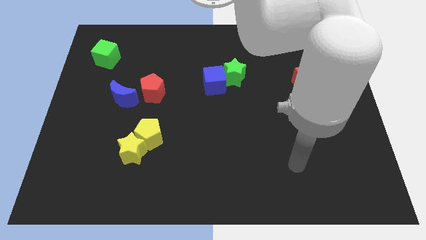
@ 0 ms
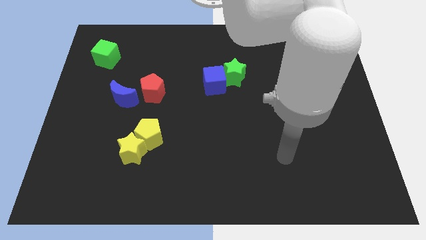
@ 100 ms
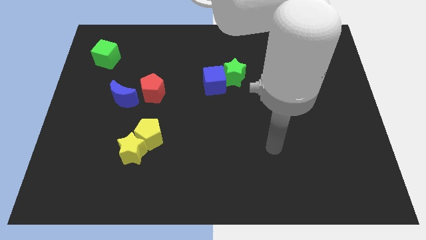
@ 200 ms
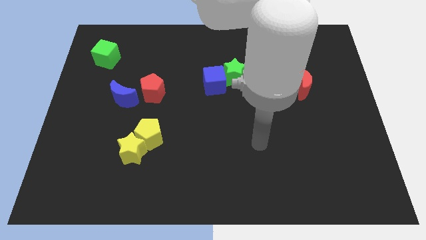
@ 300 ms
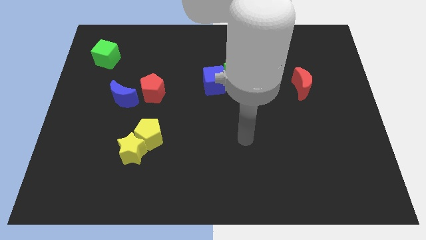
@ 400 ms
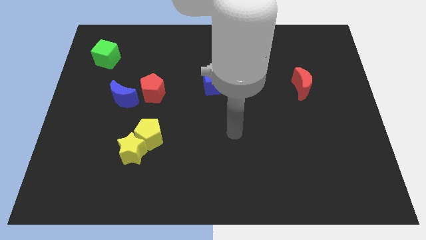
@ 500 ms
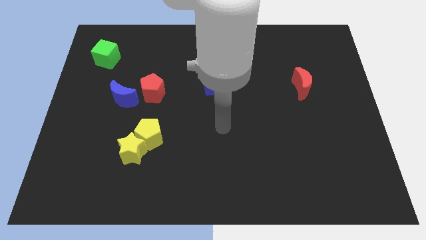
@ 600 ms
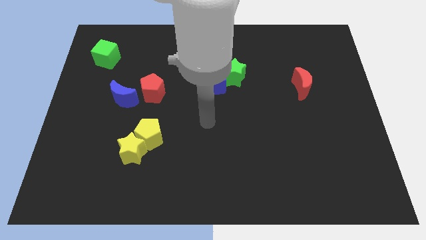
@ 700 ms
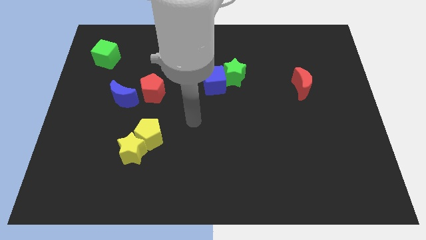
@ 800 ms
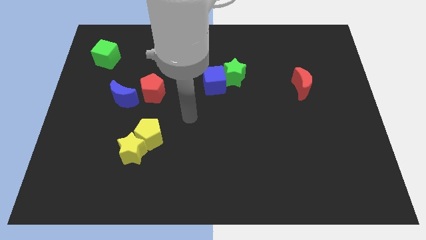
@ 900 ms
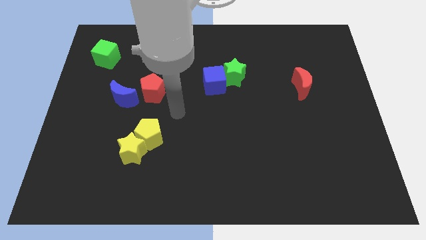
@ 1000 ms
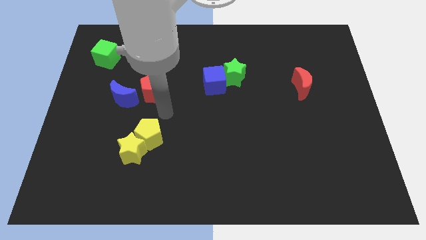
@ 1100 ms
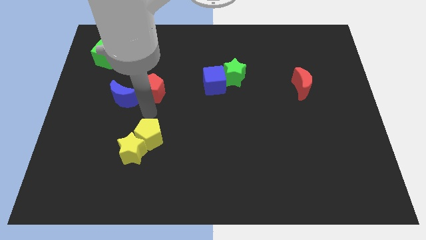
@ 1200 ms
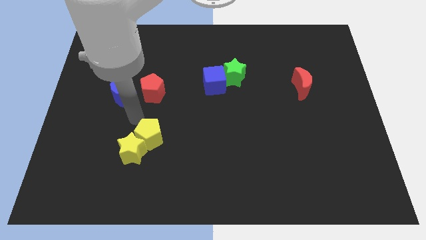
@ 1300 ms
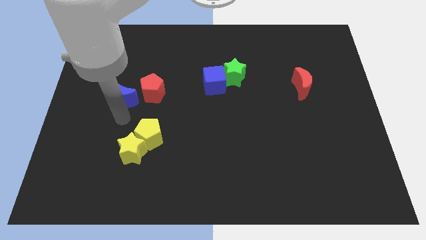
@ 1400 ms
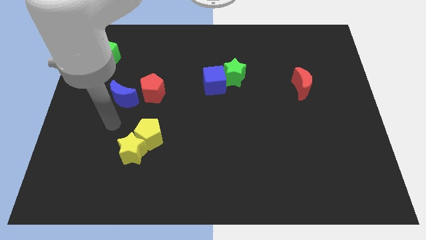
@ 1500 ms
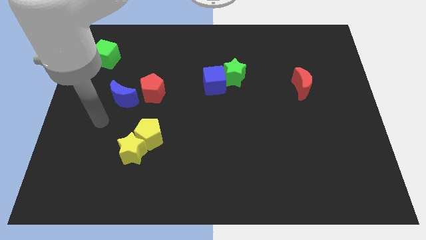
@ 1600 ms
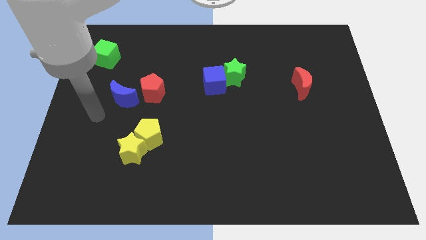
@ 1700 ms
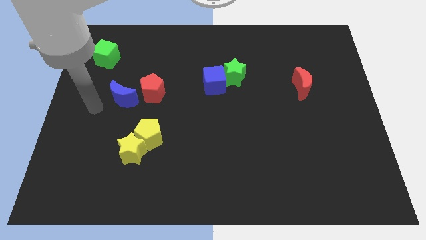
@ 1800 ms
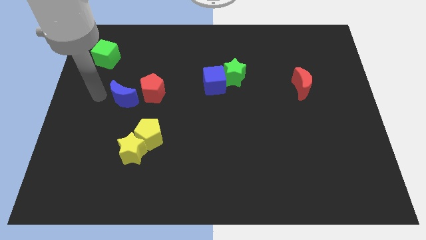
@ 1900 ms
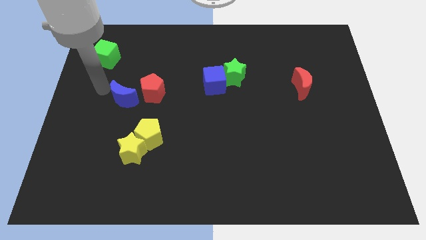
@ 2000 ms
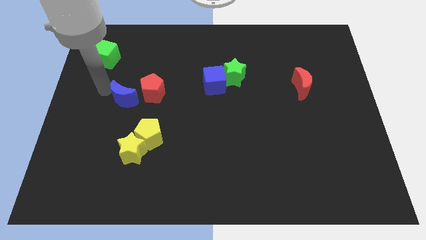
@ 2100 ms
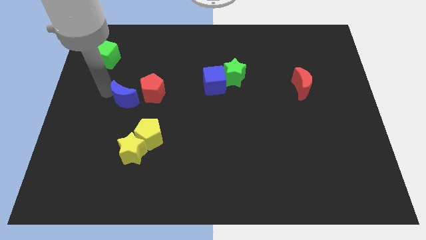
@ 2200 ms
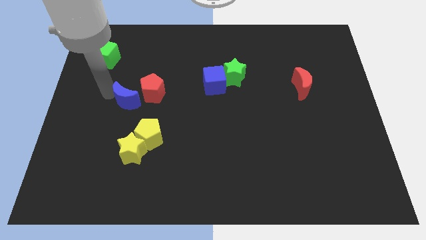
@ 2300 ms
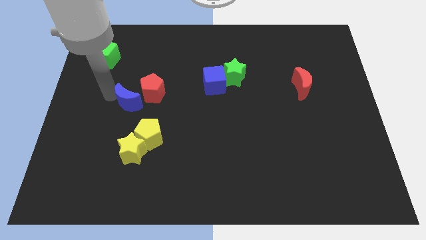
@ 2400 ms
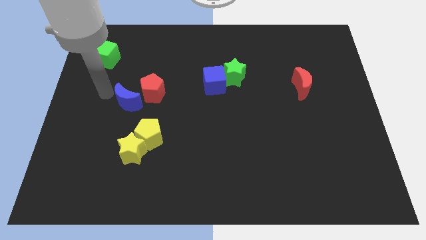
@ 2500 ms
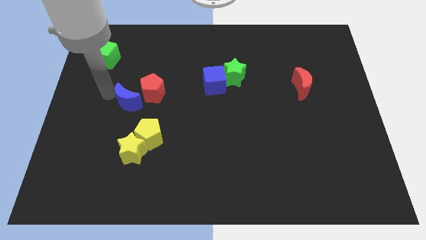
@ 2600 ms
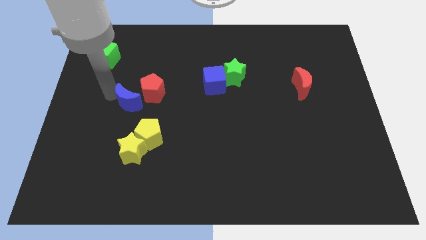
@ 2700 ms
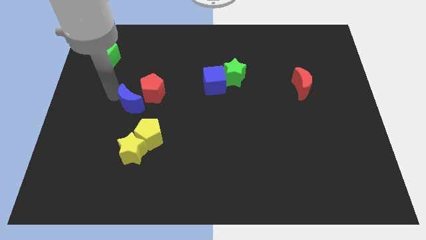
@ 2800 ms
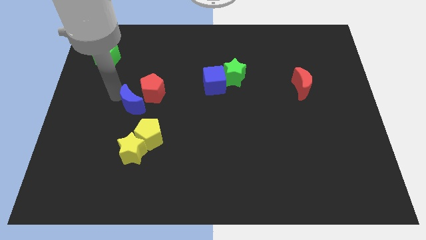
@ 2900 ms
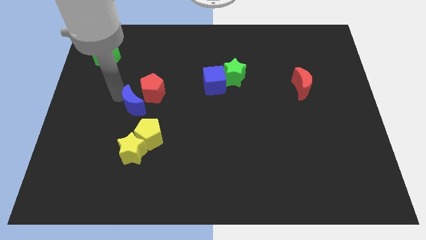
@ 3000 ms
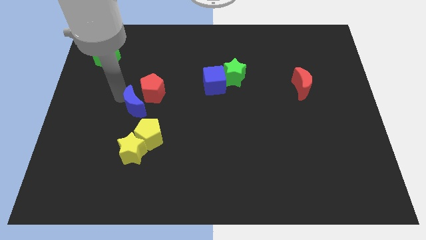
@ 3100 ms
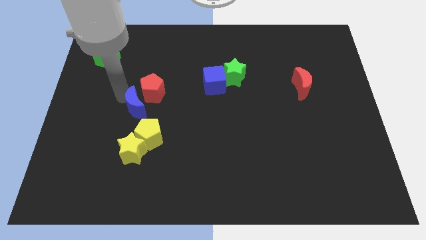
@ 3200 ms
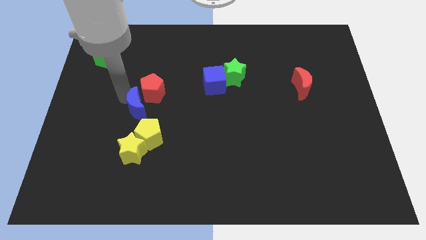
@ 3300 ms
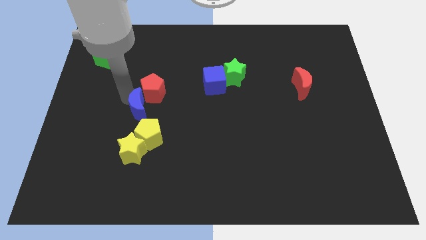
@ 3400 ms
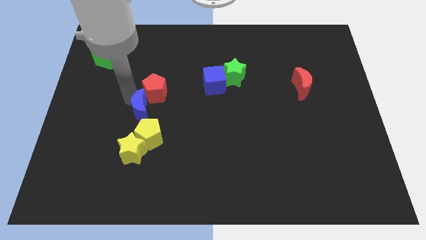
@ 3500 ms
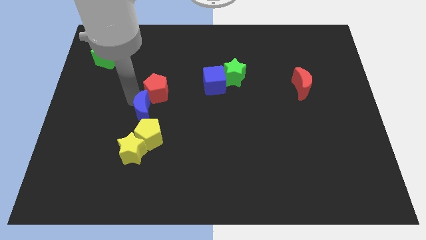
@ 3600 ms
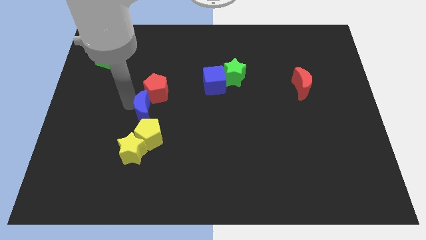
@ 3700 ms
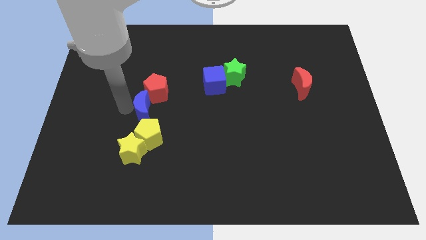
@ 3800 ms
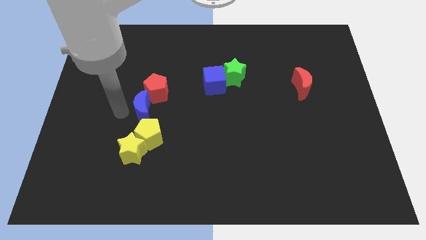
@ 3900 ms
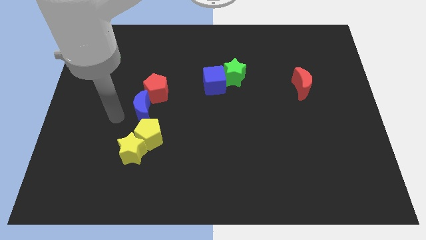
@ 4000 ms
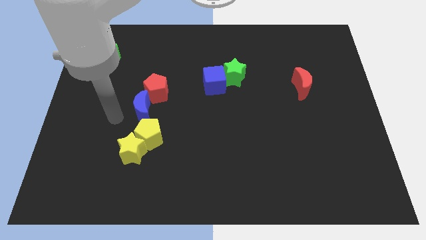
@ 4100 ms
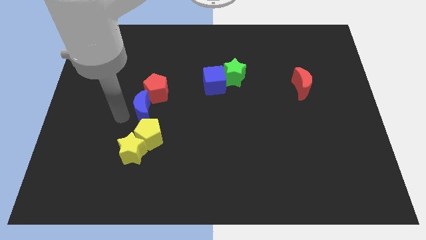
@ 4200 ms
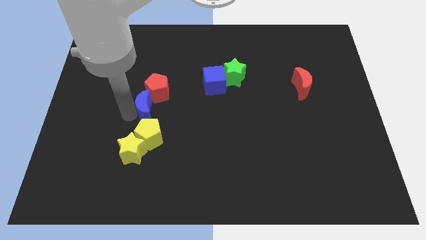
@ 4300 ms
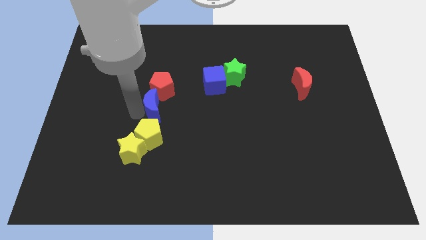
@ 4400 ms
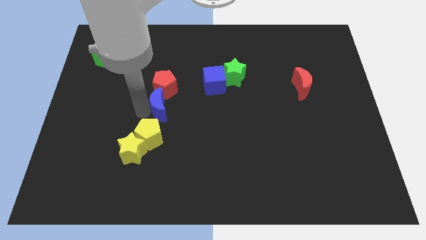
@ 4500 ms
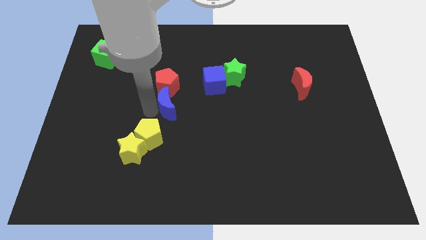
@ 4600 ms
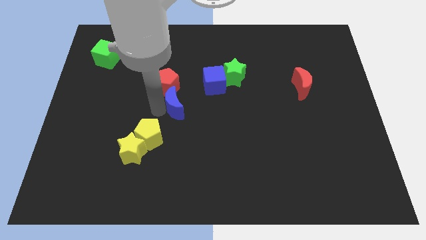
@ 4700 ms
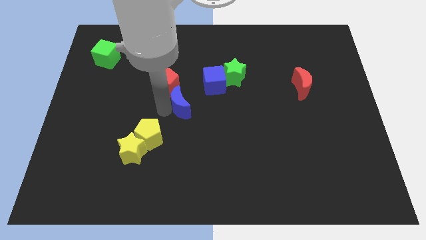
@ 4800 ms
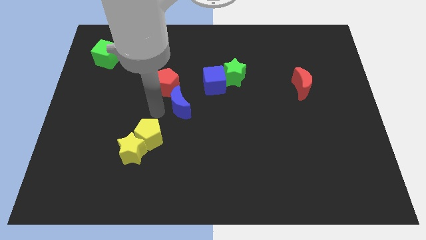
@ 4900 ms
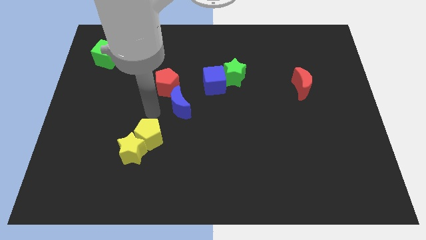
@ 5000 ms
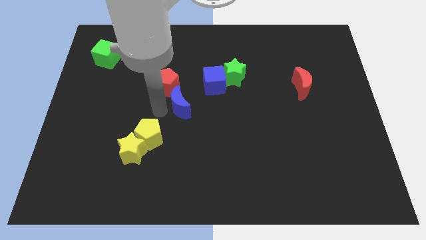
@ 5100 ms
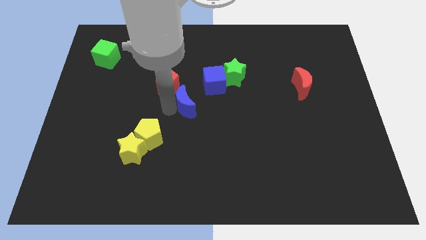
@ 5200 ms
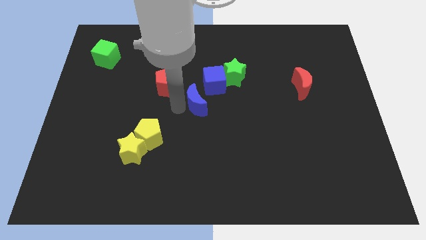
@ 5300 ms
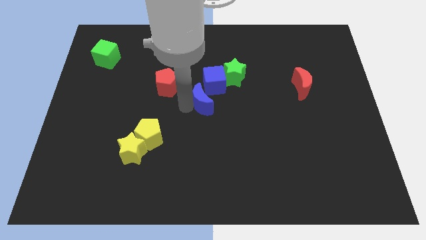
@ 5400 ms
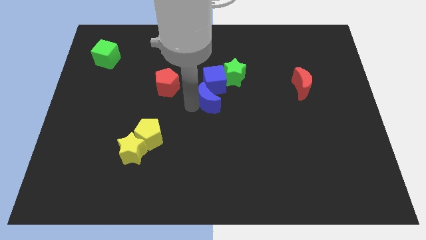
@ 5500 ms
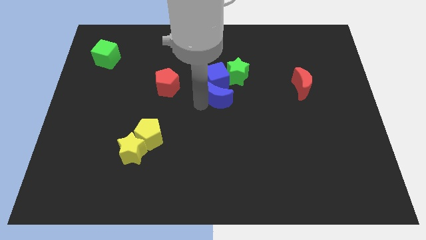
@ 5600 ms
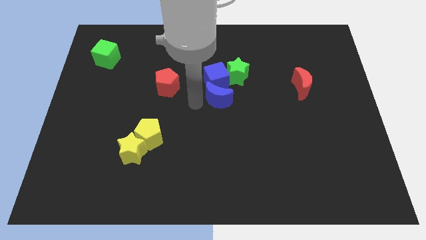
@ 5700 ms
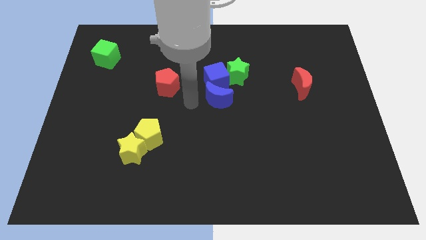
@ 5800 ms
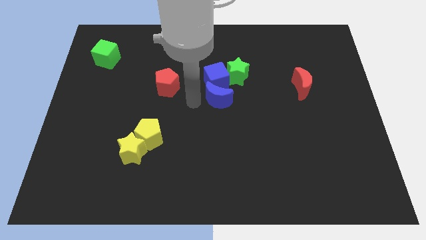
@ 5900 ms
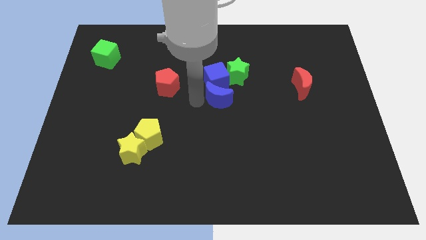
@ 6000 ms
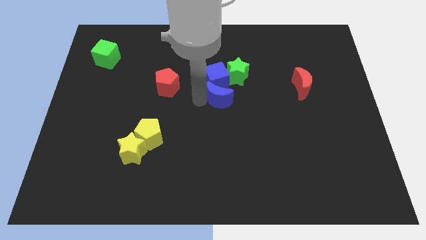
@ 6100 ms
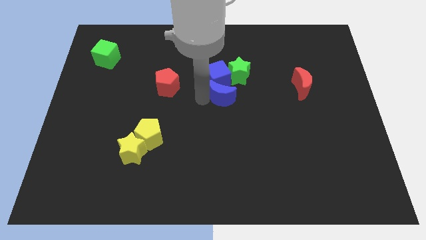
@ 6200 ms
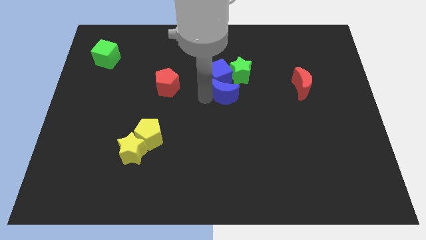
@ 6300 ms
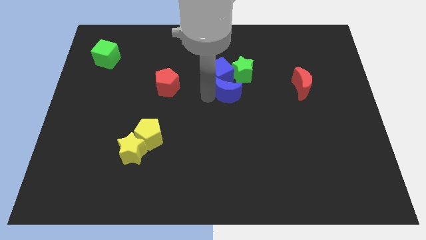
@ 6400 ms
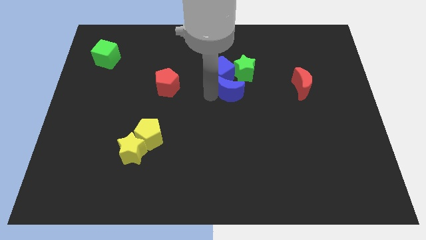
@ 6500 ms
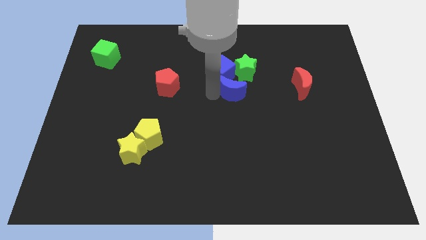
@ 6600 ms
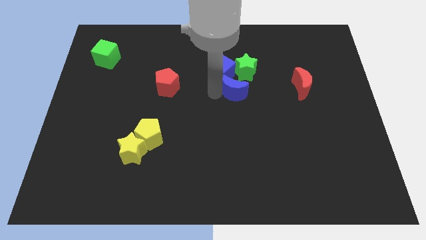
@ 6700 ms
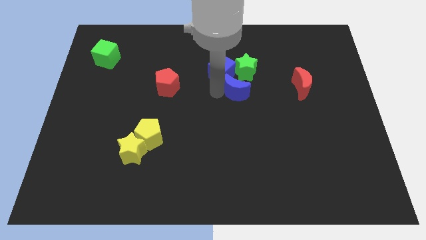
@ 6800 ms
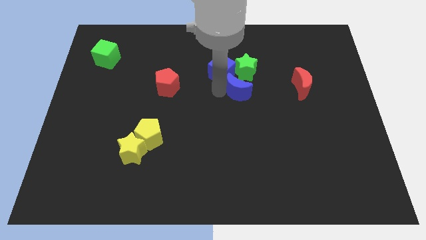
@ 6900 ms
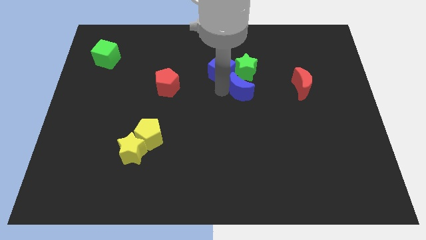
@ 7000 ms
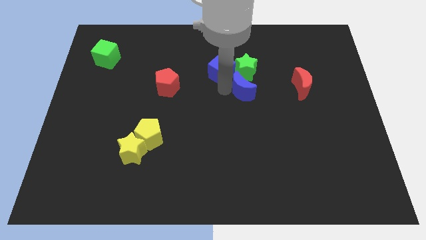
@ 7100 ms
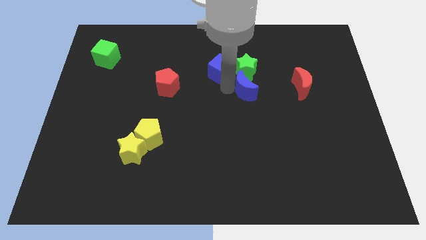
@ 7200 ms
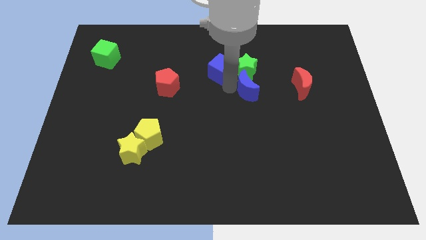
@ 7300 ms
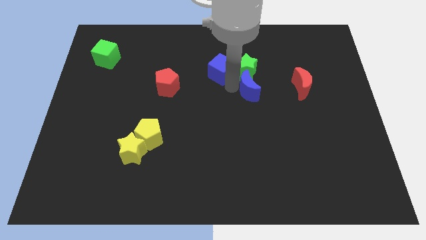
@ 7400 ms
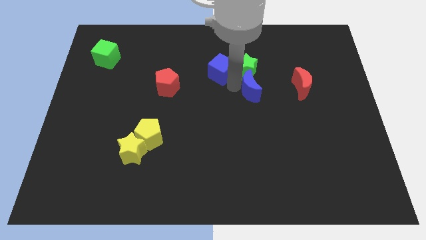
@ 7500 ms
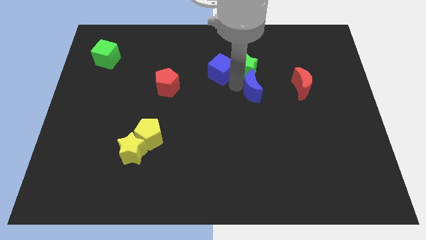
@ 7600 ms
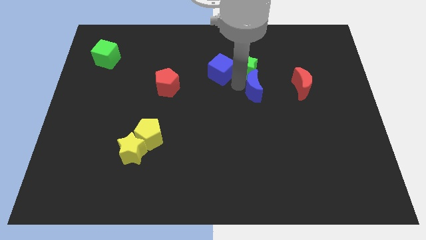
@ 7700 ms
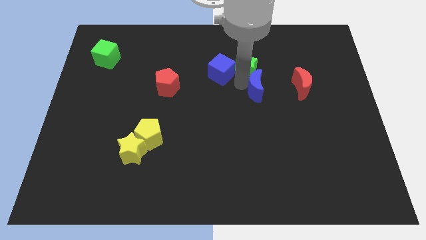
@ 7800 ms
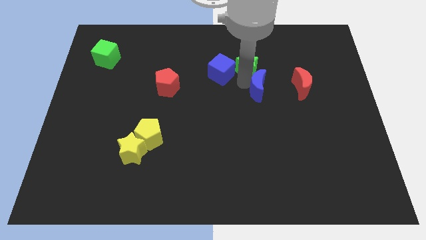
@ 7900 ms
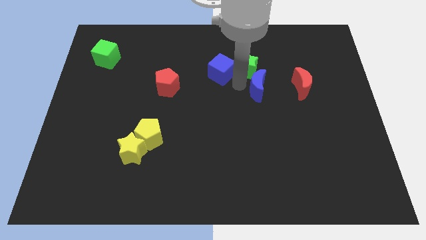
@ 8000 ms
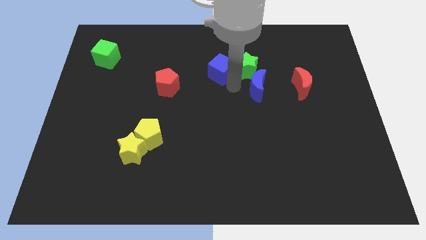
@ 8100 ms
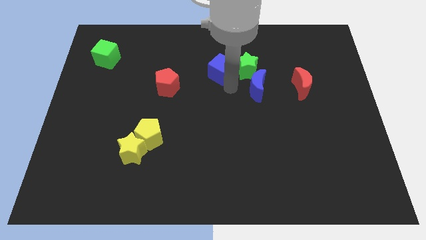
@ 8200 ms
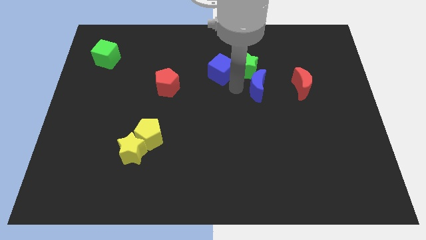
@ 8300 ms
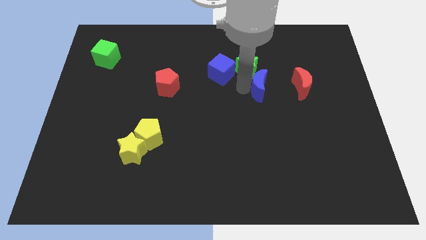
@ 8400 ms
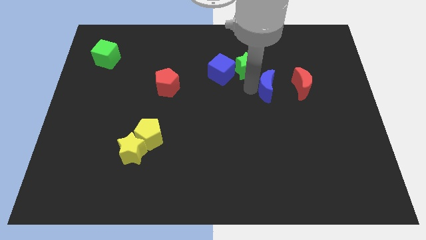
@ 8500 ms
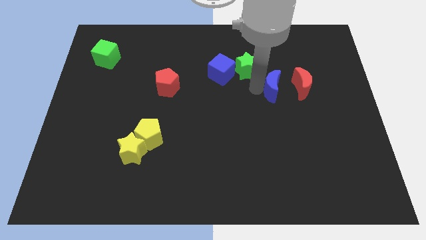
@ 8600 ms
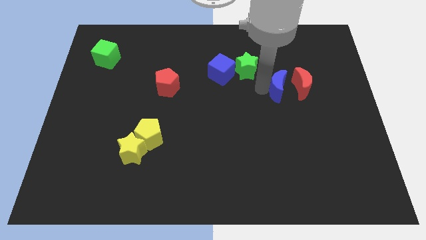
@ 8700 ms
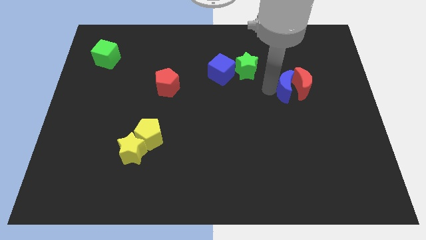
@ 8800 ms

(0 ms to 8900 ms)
push the blue moon to the red moon
